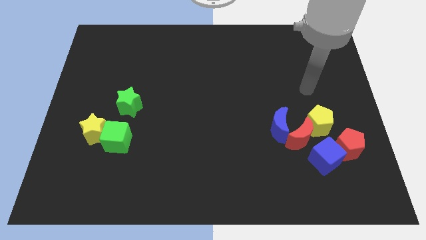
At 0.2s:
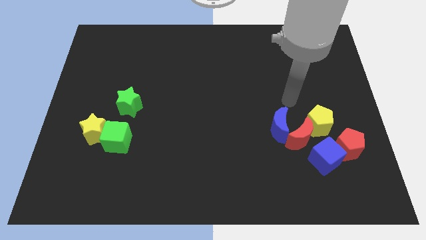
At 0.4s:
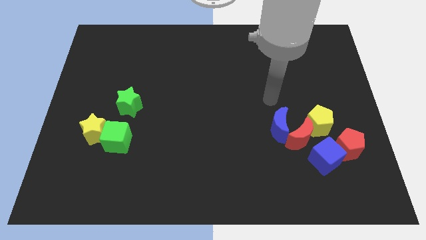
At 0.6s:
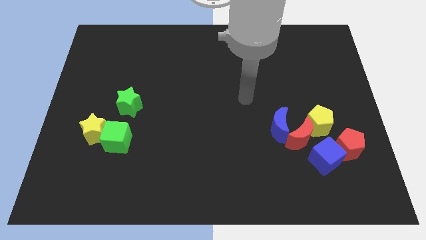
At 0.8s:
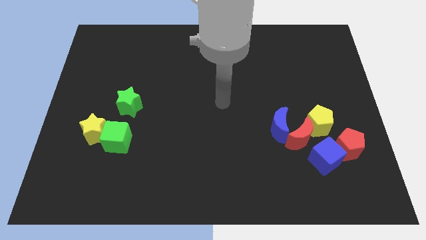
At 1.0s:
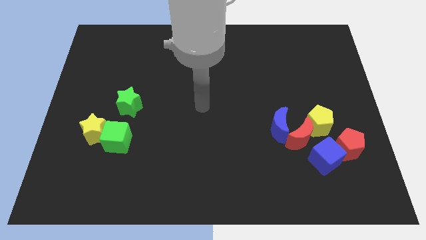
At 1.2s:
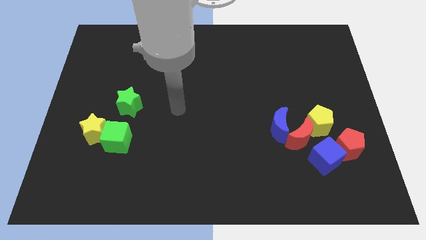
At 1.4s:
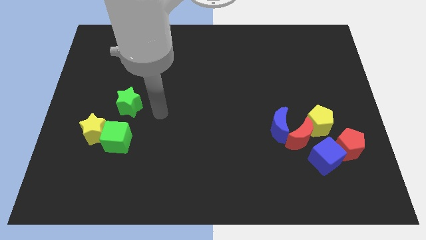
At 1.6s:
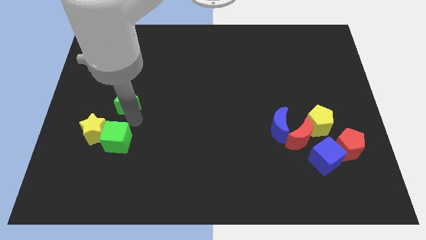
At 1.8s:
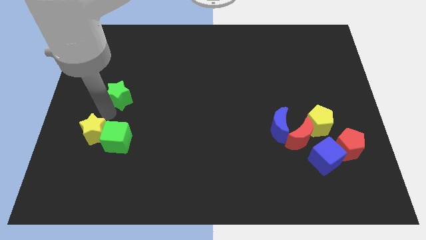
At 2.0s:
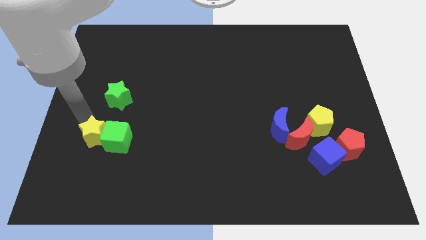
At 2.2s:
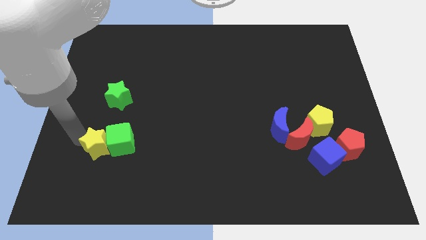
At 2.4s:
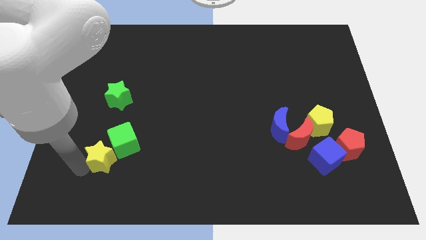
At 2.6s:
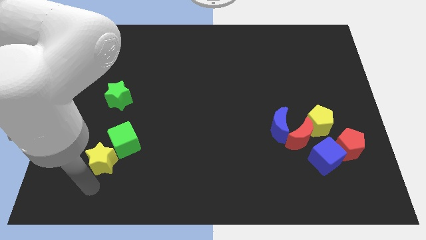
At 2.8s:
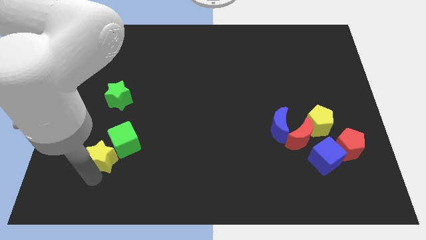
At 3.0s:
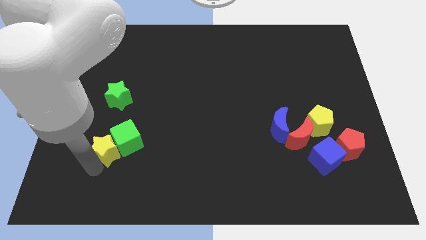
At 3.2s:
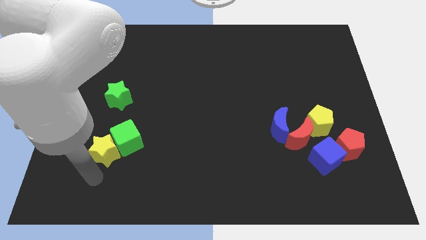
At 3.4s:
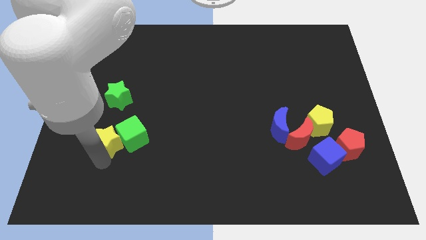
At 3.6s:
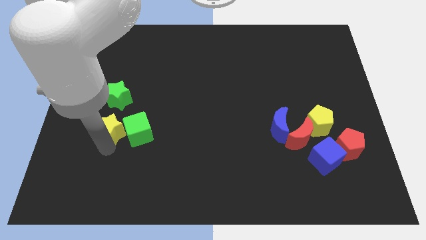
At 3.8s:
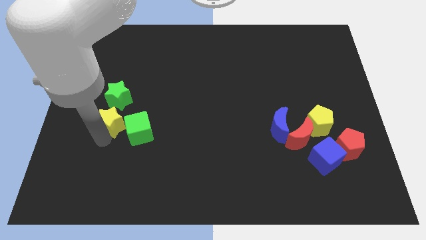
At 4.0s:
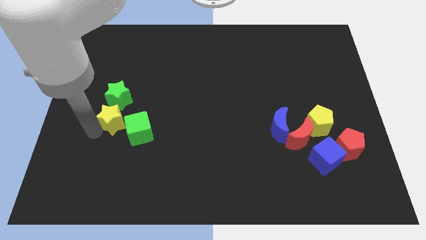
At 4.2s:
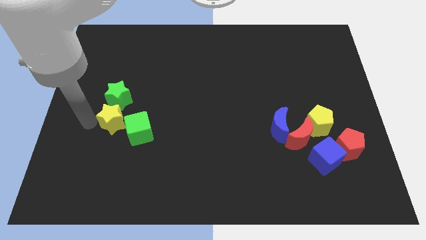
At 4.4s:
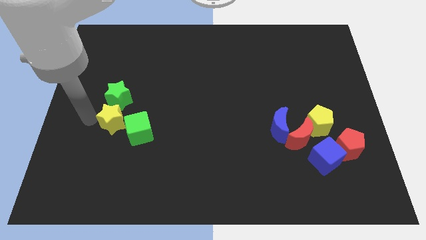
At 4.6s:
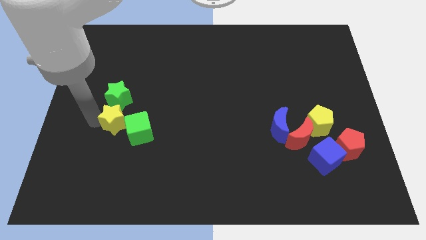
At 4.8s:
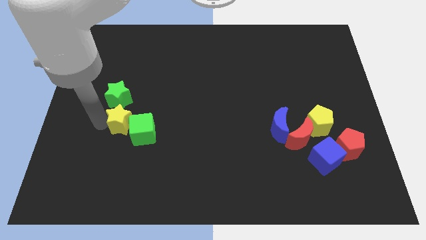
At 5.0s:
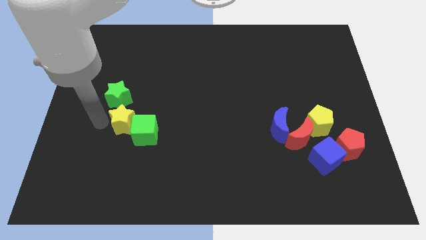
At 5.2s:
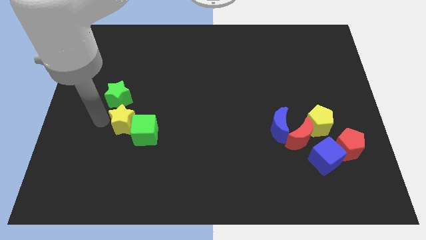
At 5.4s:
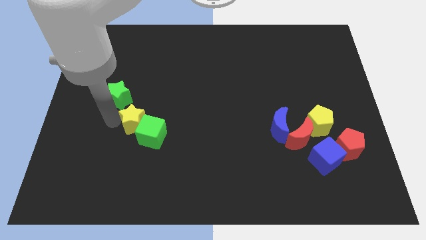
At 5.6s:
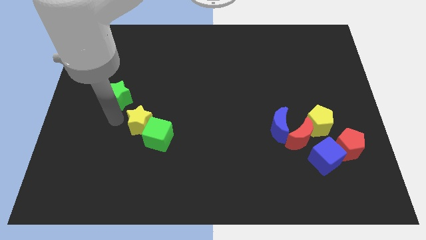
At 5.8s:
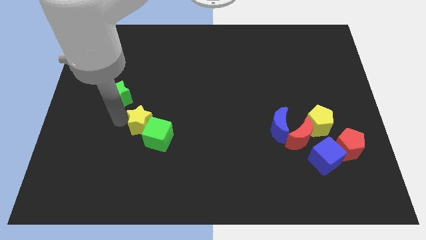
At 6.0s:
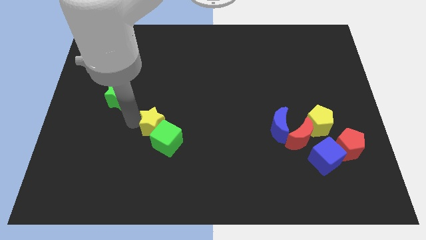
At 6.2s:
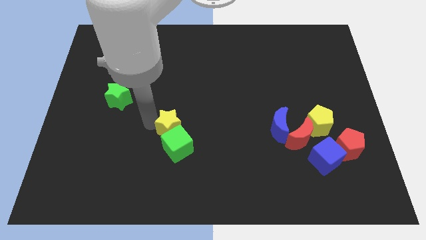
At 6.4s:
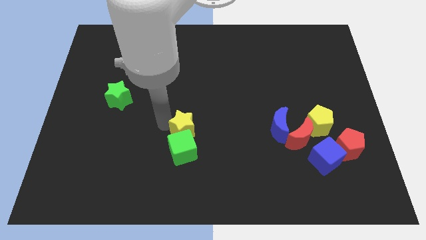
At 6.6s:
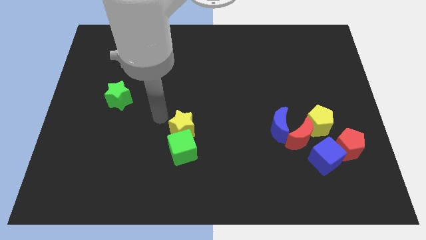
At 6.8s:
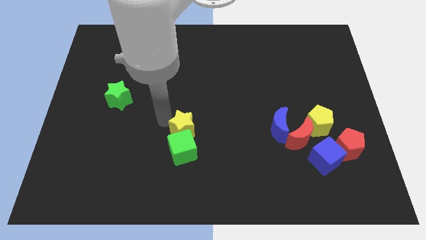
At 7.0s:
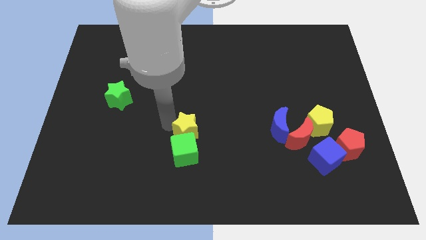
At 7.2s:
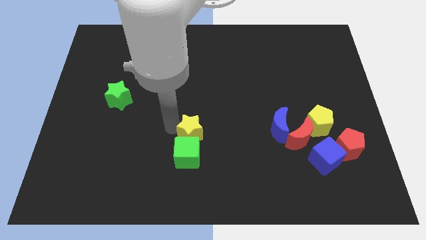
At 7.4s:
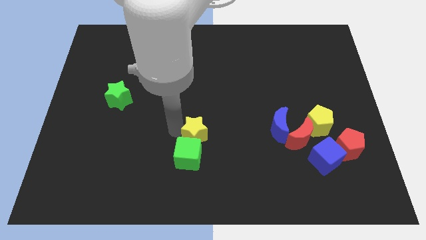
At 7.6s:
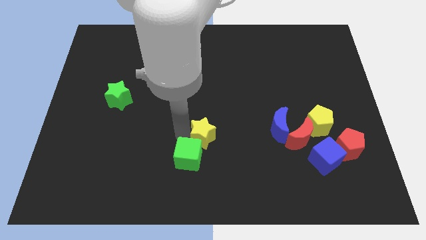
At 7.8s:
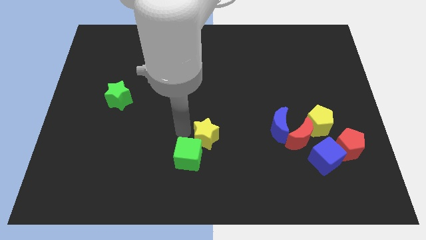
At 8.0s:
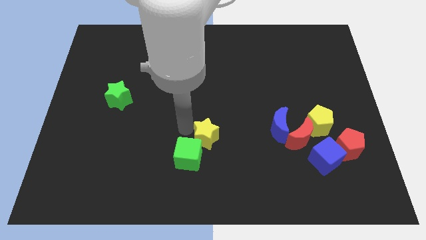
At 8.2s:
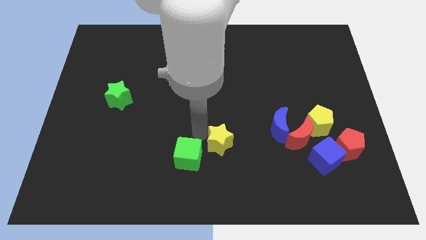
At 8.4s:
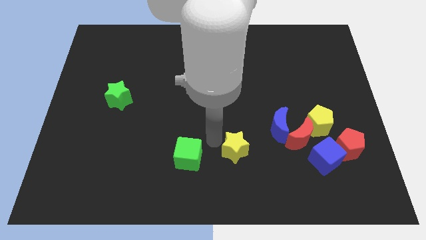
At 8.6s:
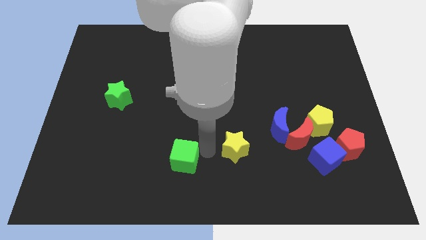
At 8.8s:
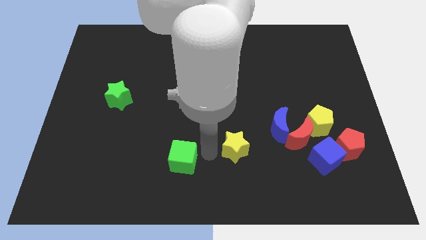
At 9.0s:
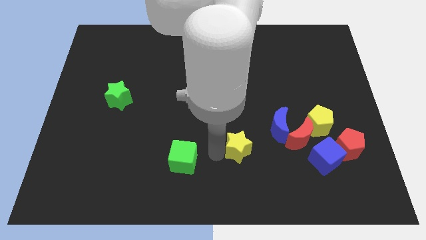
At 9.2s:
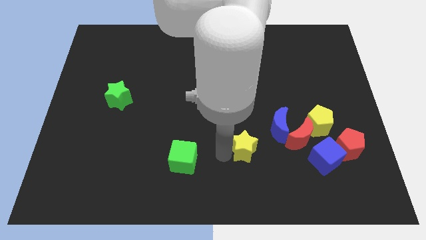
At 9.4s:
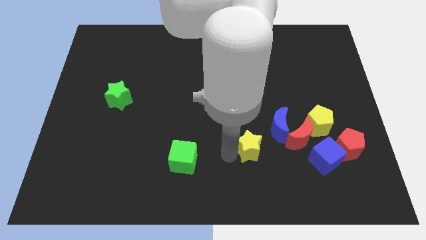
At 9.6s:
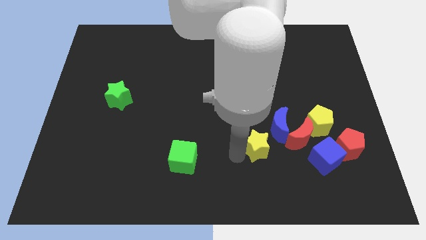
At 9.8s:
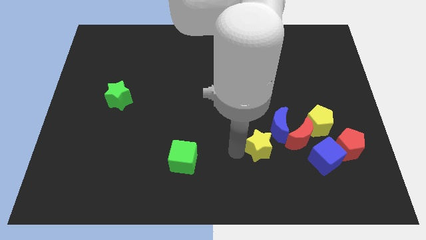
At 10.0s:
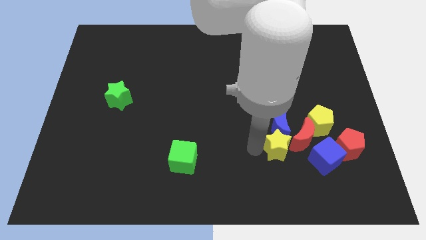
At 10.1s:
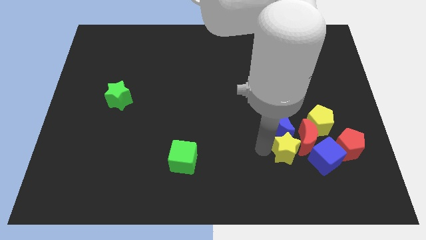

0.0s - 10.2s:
move the yellow star towards the red moon

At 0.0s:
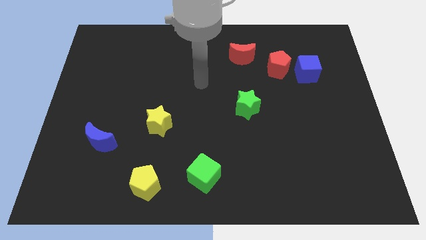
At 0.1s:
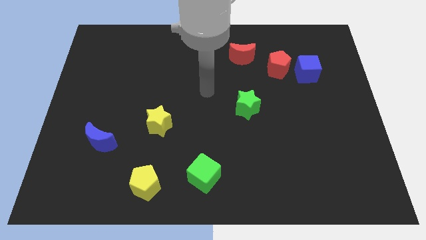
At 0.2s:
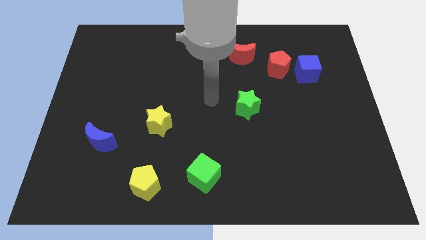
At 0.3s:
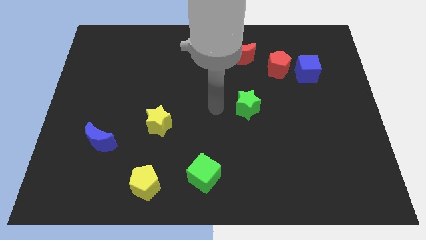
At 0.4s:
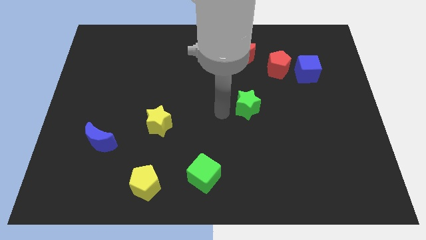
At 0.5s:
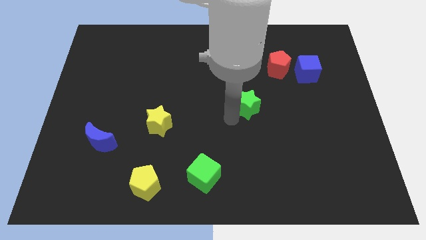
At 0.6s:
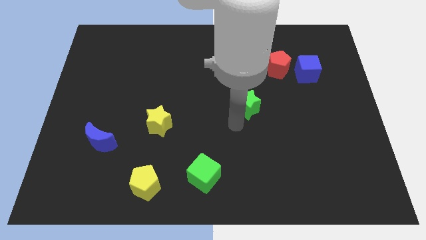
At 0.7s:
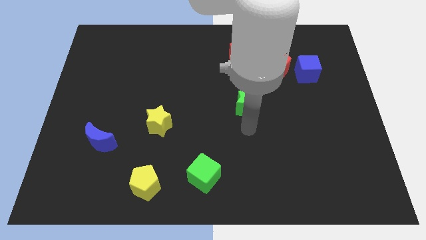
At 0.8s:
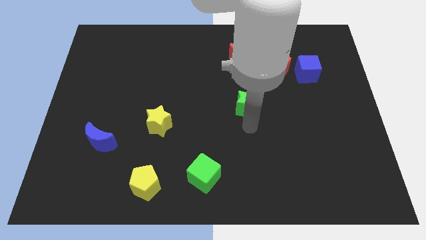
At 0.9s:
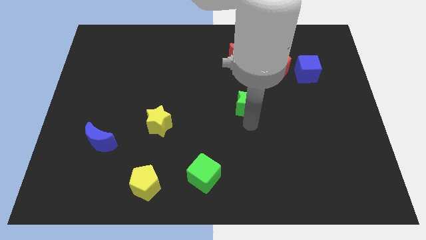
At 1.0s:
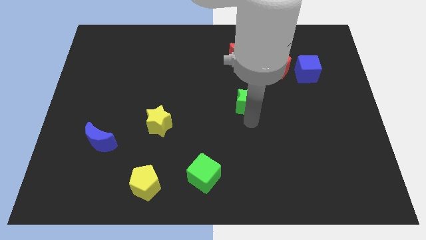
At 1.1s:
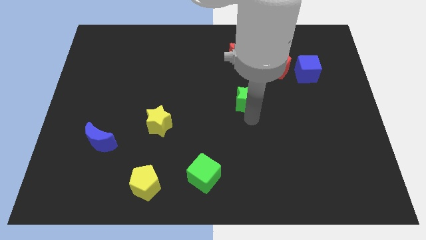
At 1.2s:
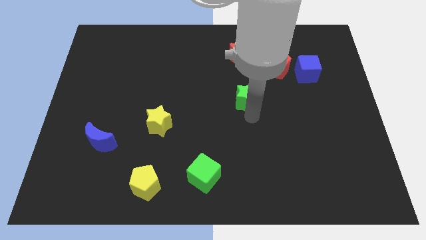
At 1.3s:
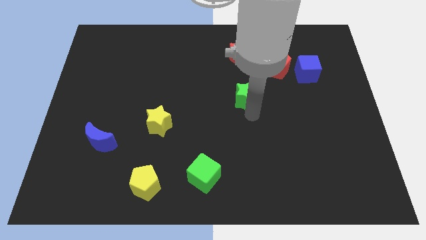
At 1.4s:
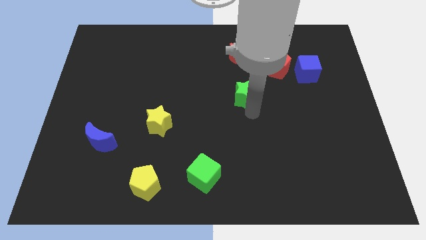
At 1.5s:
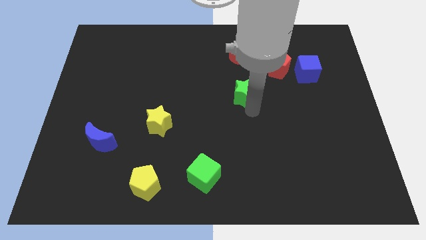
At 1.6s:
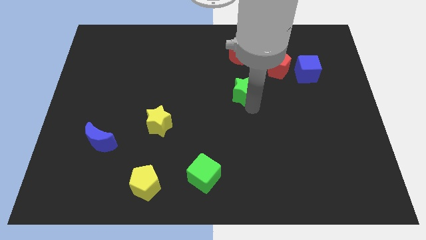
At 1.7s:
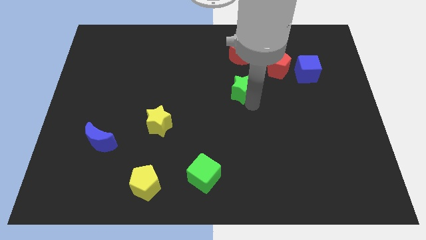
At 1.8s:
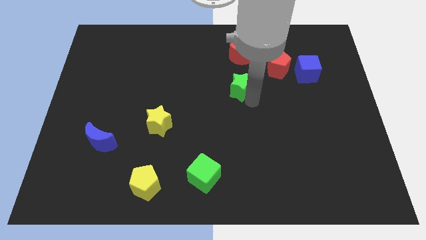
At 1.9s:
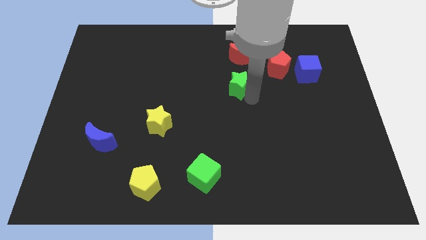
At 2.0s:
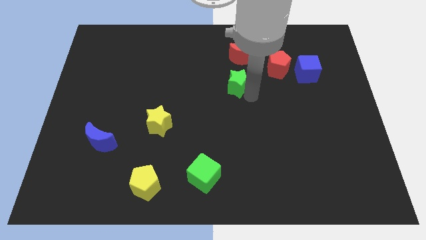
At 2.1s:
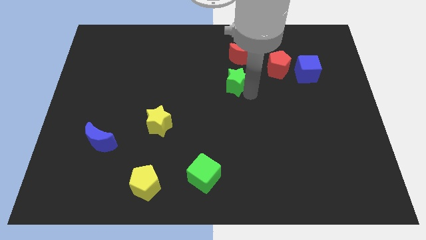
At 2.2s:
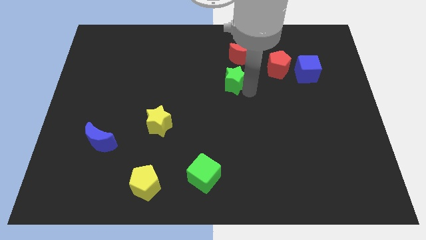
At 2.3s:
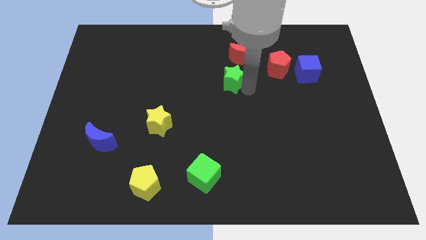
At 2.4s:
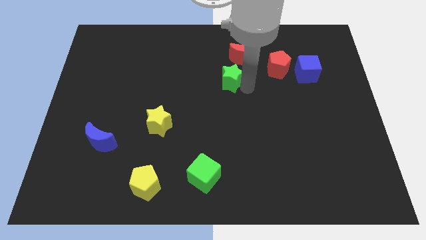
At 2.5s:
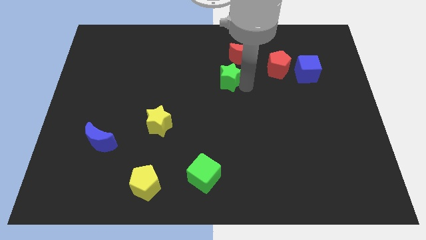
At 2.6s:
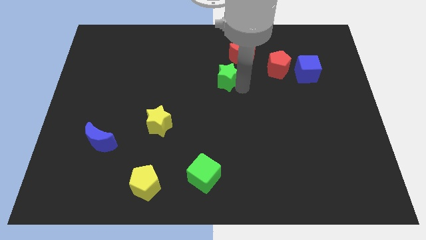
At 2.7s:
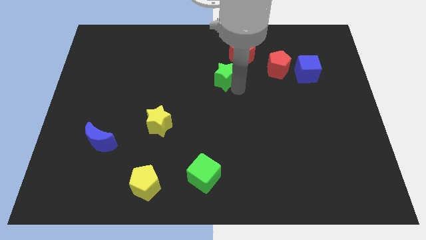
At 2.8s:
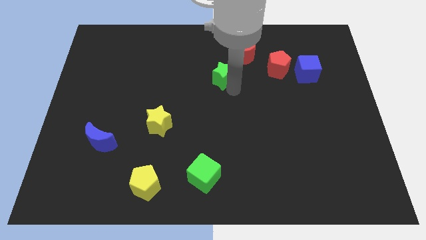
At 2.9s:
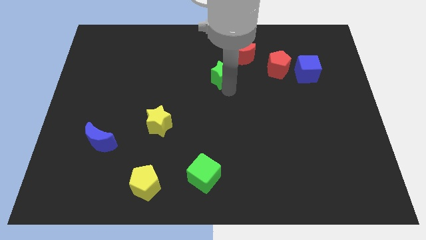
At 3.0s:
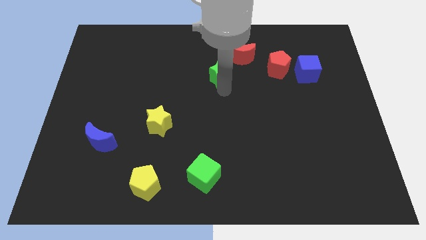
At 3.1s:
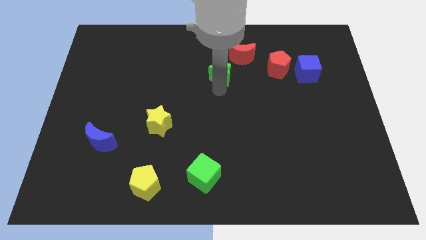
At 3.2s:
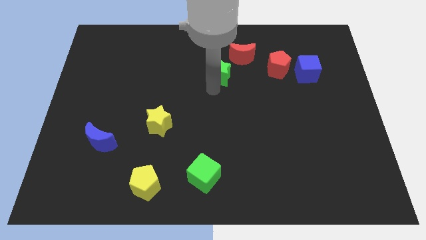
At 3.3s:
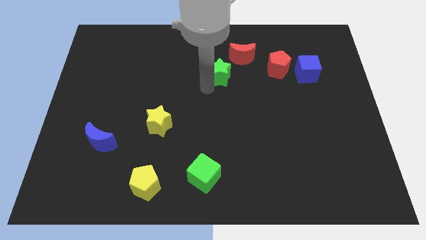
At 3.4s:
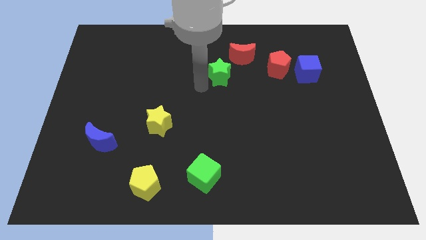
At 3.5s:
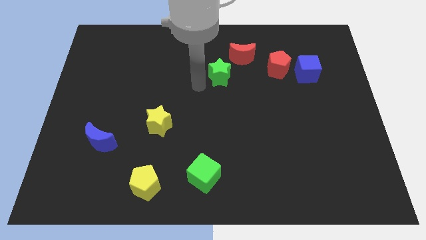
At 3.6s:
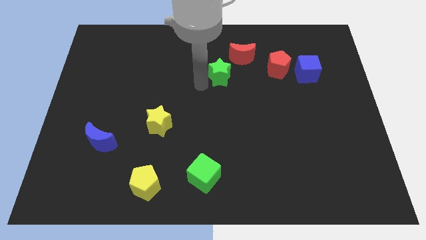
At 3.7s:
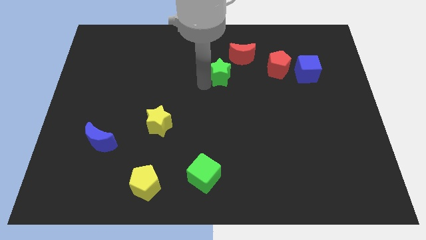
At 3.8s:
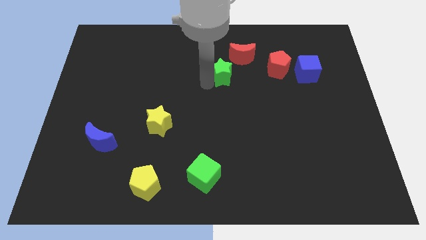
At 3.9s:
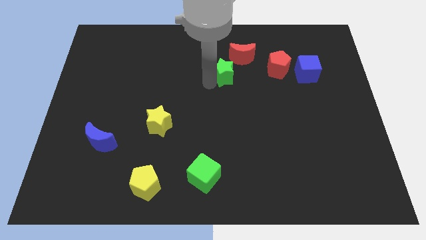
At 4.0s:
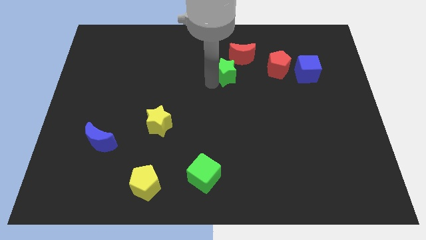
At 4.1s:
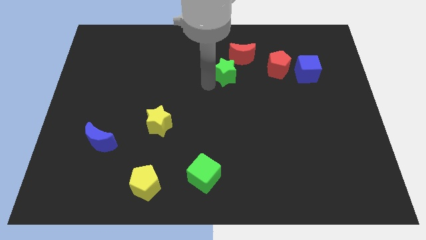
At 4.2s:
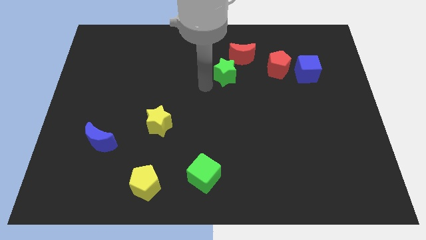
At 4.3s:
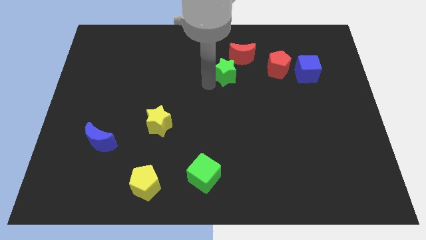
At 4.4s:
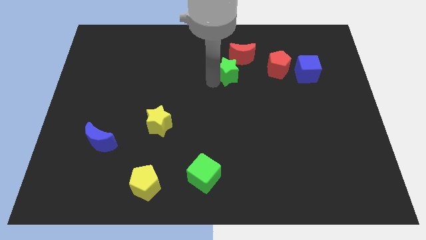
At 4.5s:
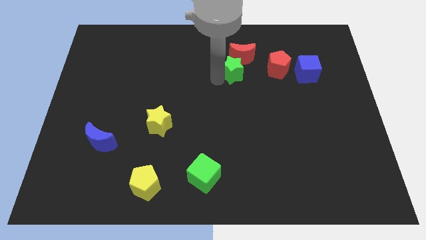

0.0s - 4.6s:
put the green star close to the red moon
